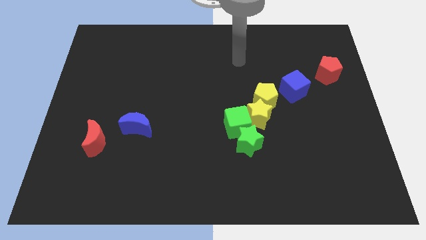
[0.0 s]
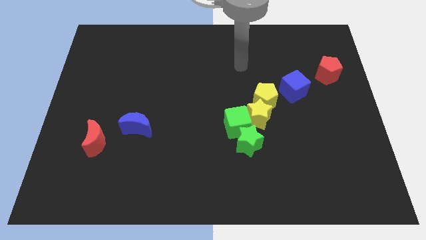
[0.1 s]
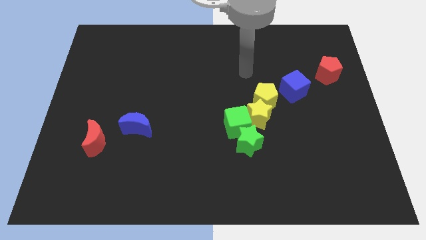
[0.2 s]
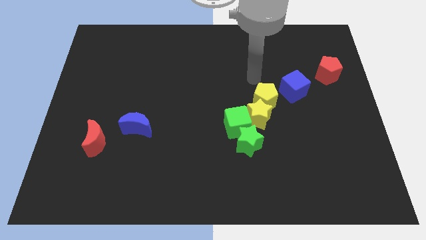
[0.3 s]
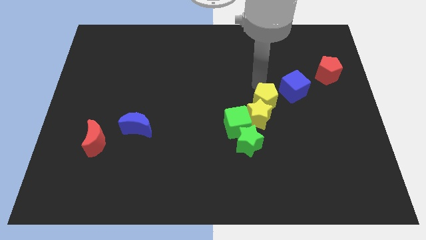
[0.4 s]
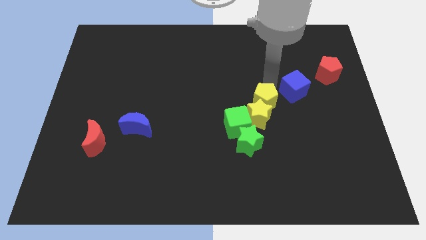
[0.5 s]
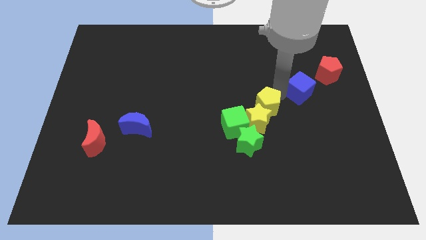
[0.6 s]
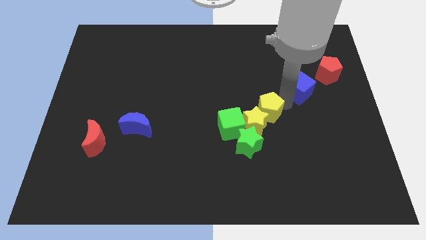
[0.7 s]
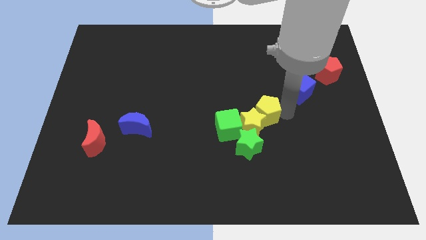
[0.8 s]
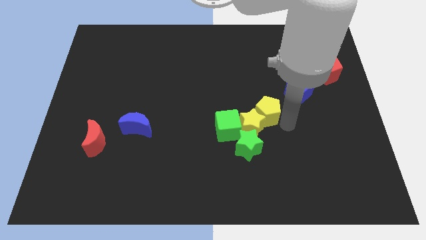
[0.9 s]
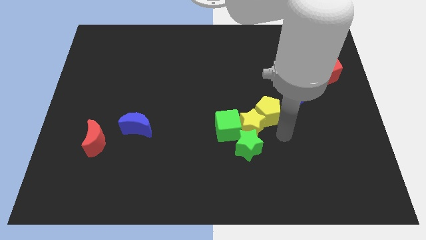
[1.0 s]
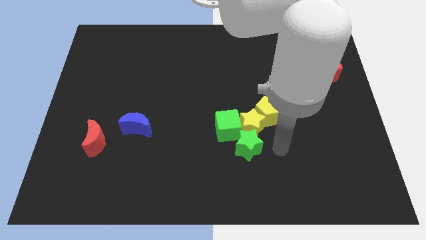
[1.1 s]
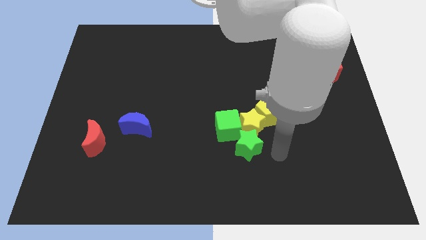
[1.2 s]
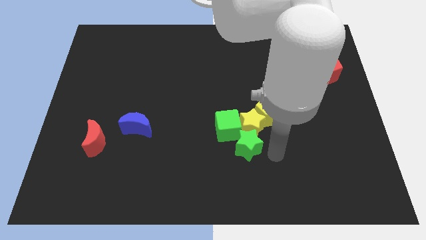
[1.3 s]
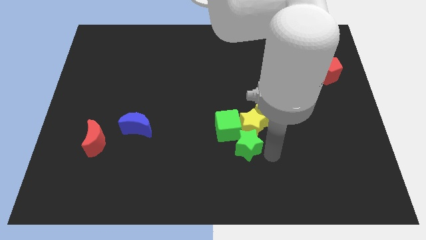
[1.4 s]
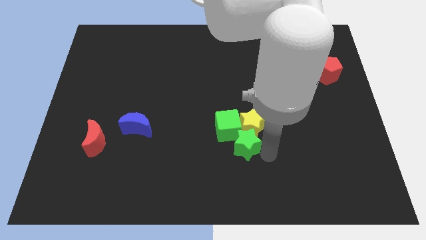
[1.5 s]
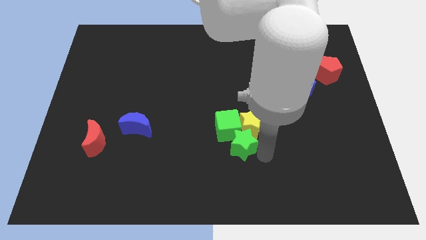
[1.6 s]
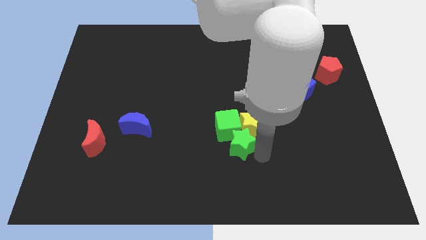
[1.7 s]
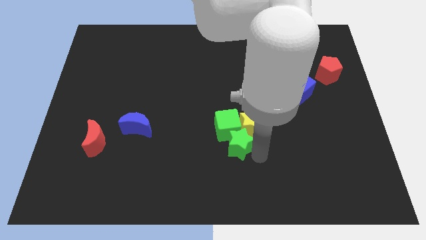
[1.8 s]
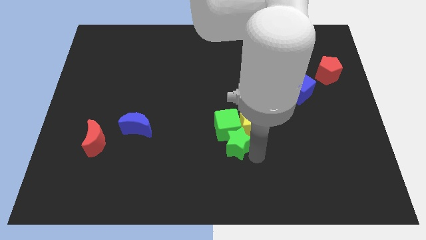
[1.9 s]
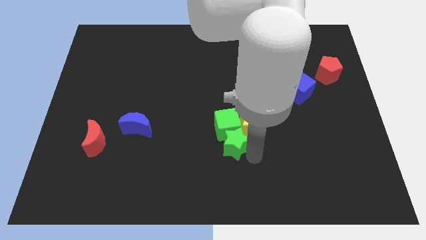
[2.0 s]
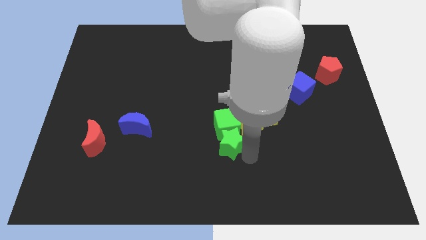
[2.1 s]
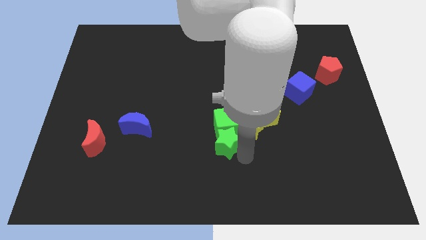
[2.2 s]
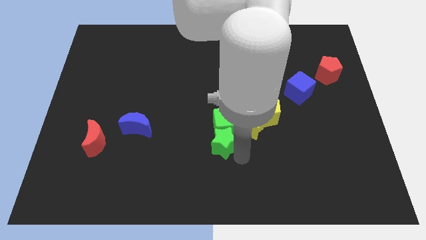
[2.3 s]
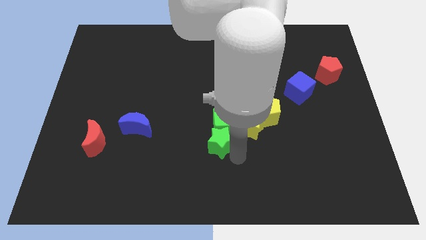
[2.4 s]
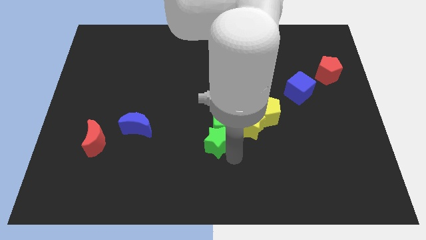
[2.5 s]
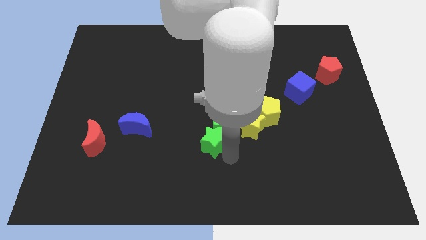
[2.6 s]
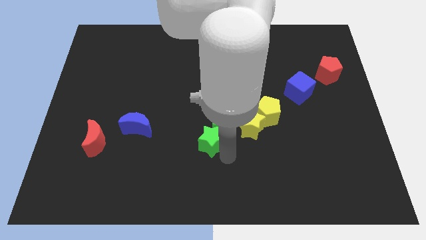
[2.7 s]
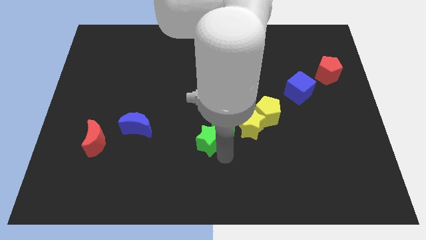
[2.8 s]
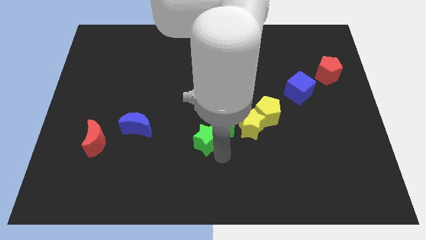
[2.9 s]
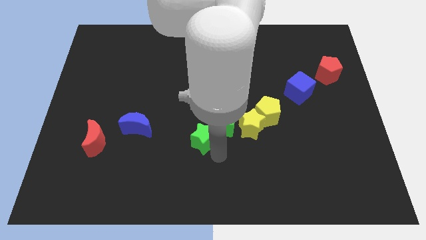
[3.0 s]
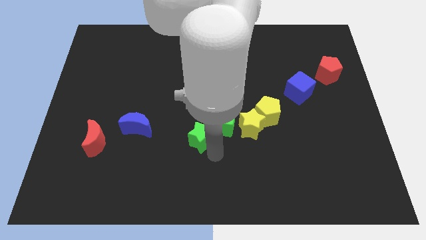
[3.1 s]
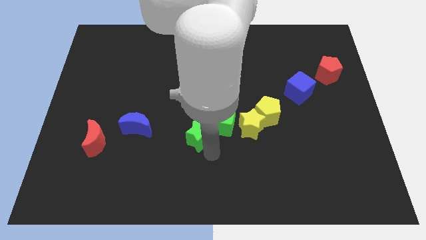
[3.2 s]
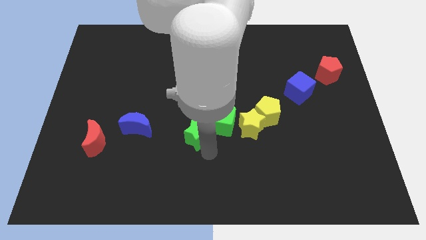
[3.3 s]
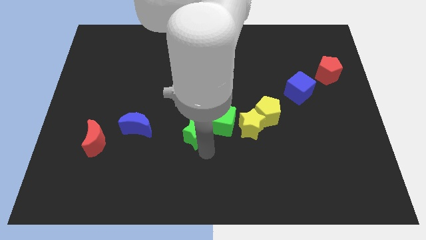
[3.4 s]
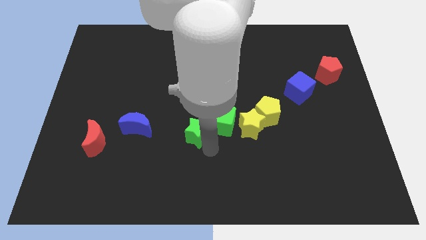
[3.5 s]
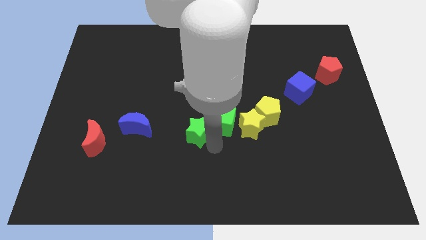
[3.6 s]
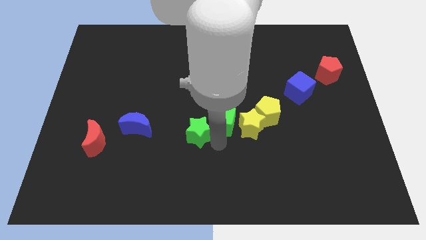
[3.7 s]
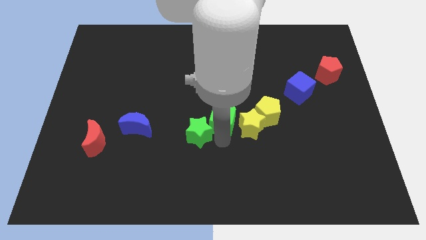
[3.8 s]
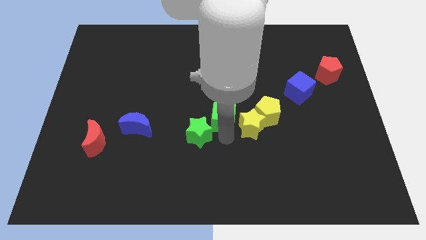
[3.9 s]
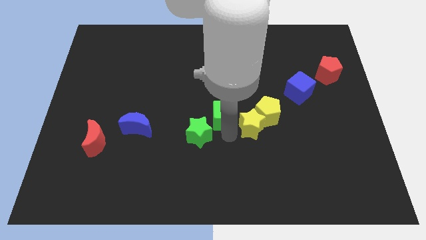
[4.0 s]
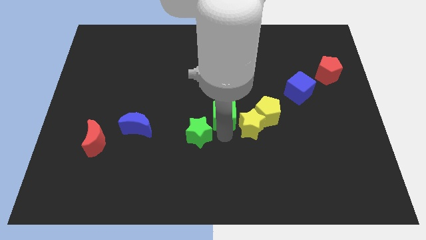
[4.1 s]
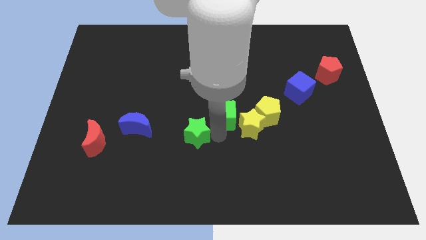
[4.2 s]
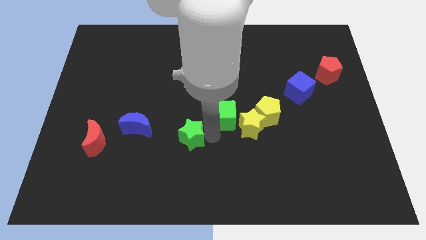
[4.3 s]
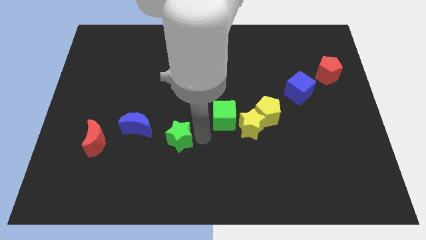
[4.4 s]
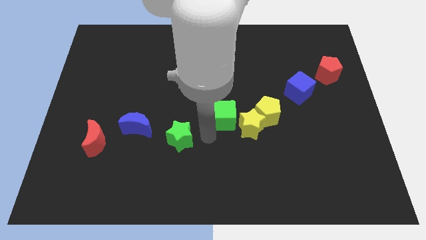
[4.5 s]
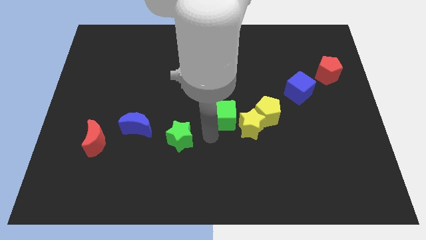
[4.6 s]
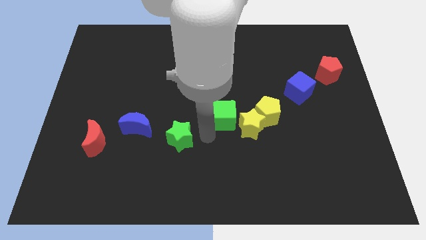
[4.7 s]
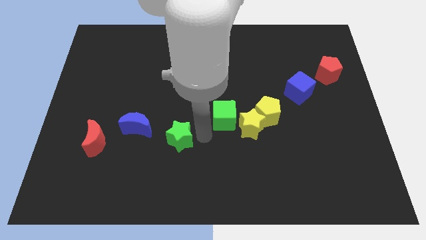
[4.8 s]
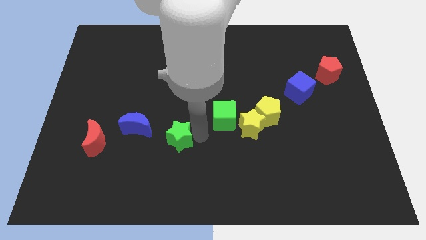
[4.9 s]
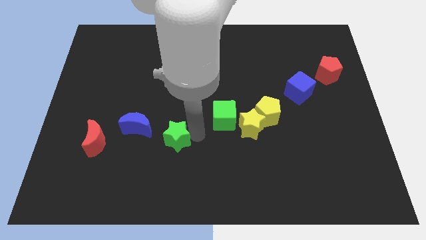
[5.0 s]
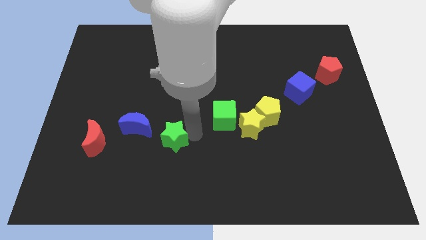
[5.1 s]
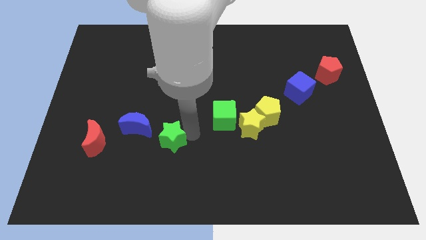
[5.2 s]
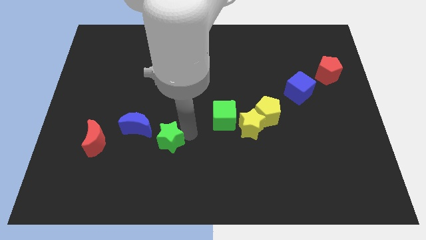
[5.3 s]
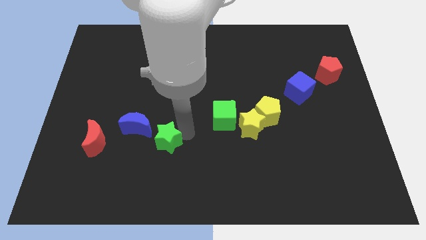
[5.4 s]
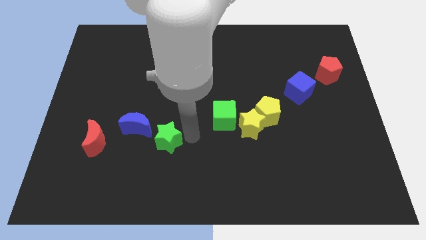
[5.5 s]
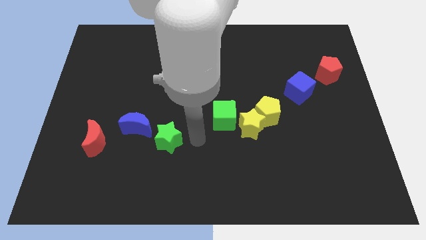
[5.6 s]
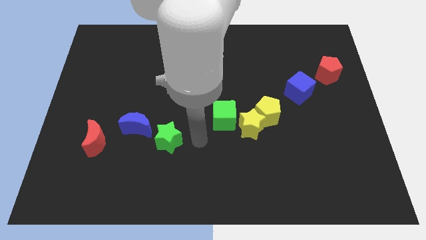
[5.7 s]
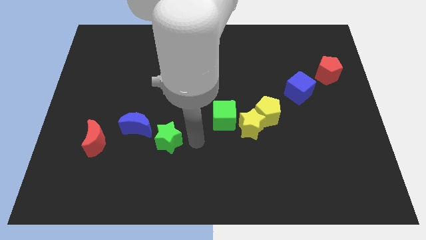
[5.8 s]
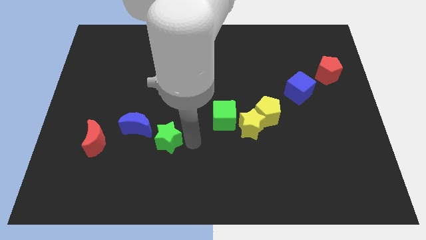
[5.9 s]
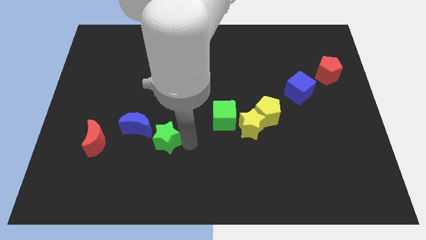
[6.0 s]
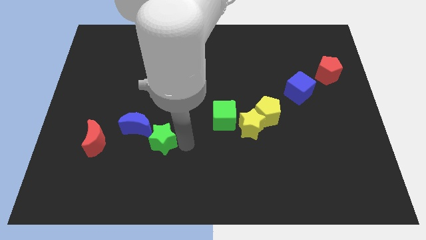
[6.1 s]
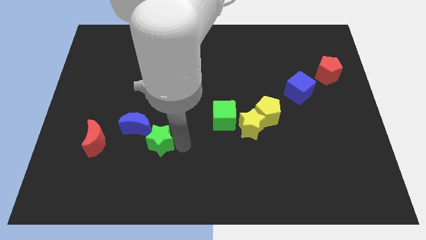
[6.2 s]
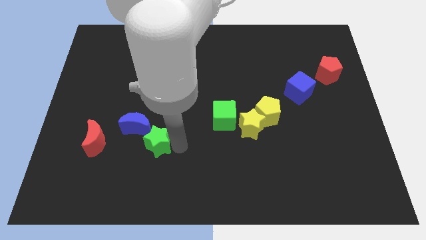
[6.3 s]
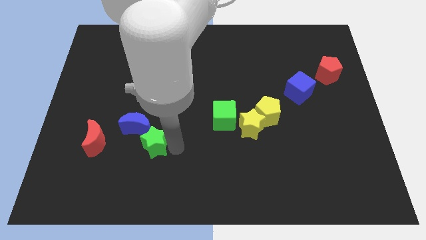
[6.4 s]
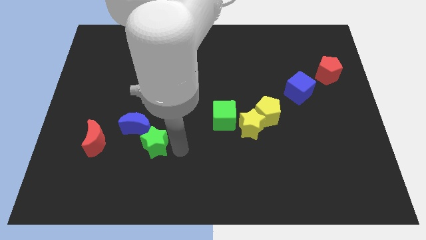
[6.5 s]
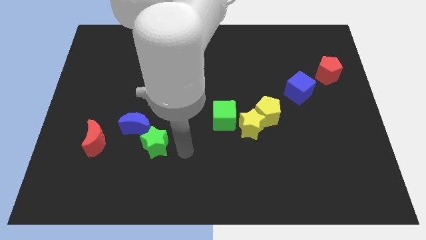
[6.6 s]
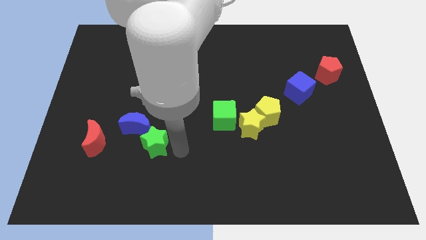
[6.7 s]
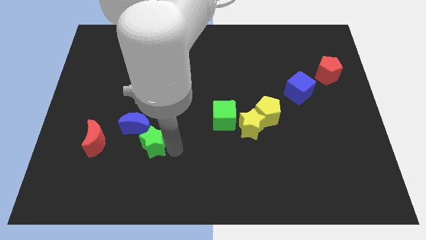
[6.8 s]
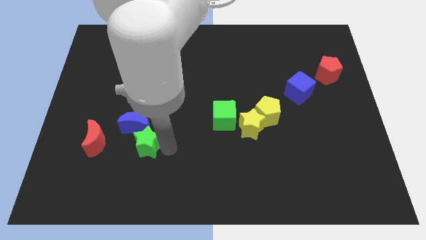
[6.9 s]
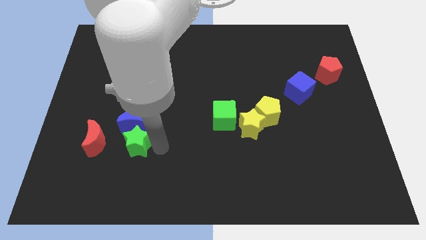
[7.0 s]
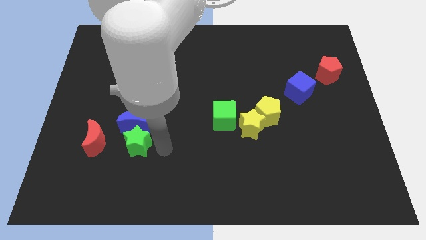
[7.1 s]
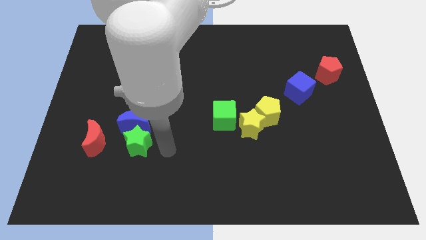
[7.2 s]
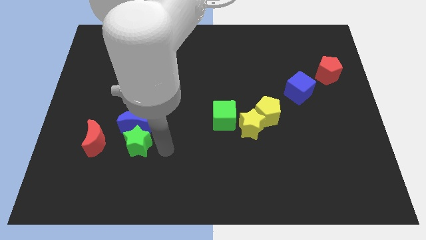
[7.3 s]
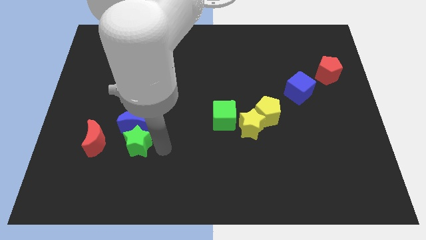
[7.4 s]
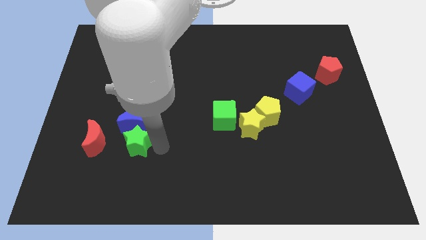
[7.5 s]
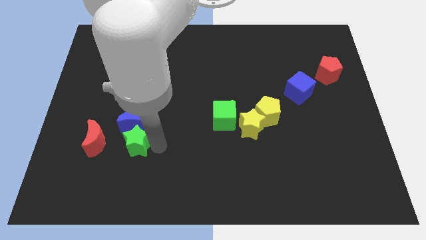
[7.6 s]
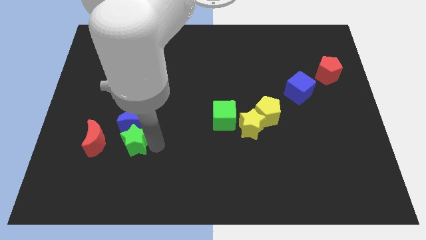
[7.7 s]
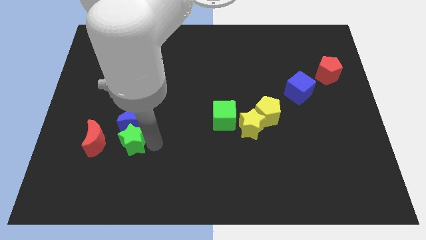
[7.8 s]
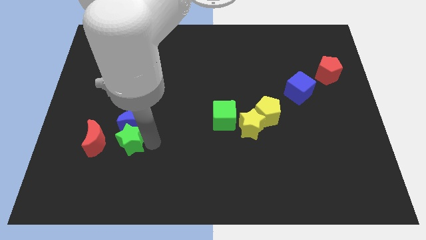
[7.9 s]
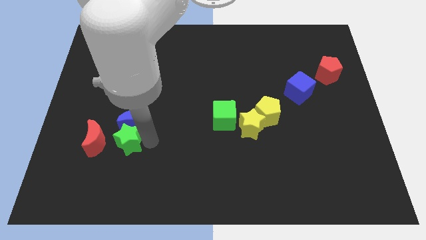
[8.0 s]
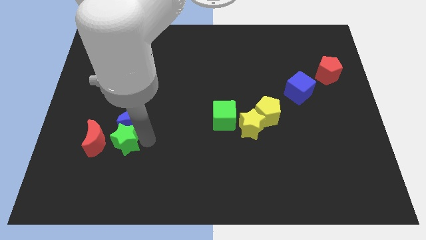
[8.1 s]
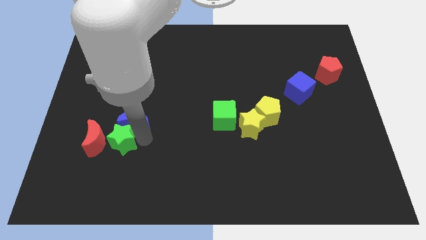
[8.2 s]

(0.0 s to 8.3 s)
push the green star close to the red moon

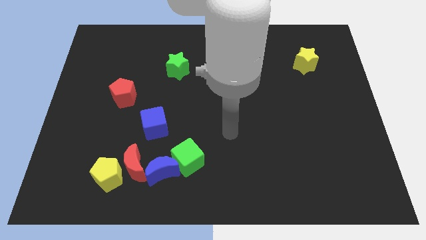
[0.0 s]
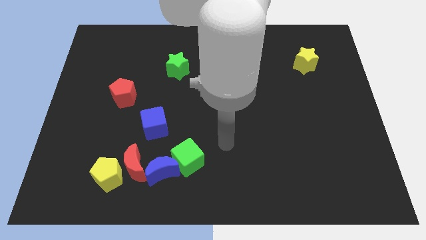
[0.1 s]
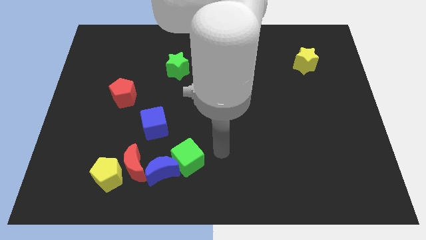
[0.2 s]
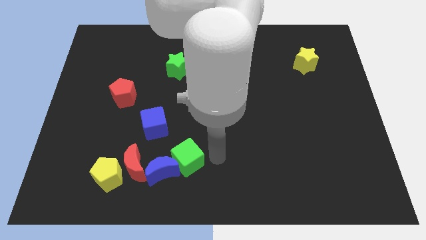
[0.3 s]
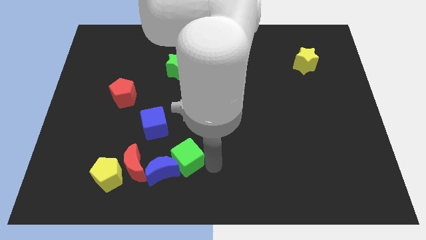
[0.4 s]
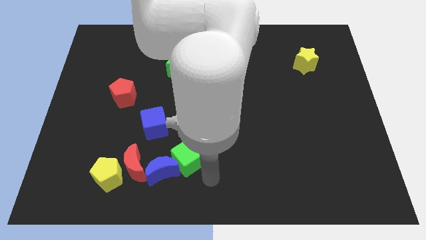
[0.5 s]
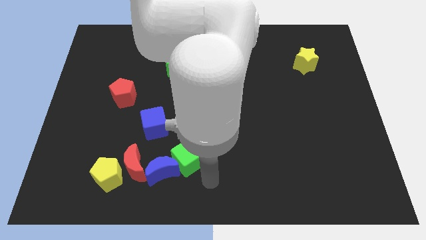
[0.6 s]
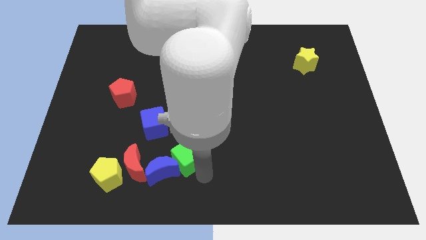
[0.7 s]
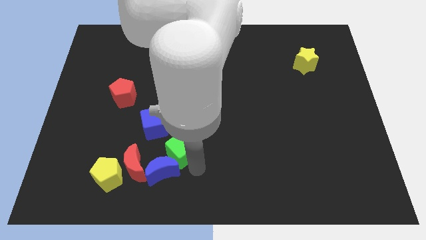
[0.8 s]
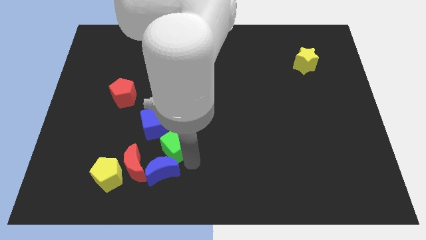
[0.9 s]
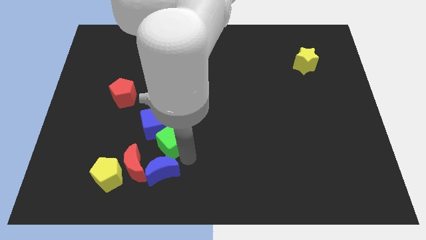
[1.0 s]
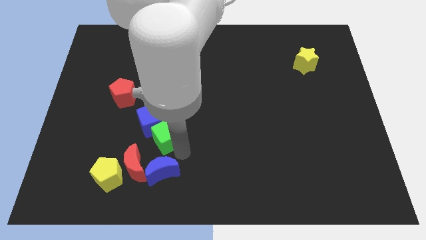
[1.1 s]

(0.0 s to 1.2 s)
put the green cube next to the blue cube
